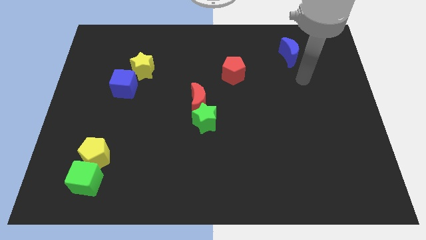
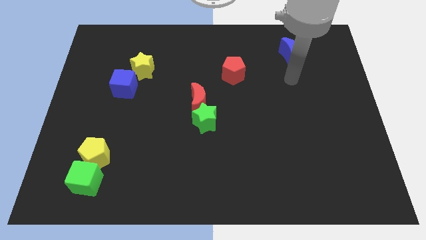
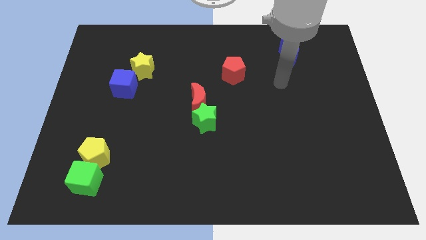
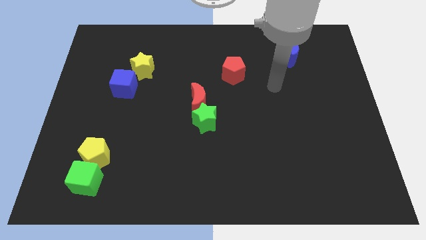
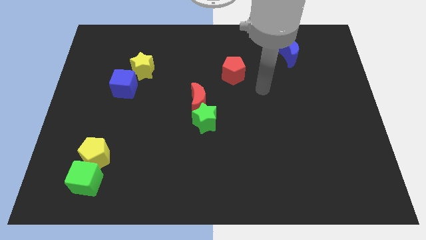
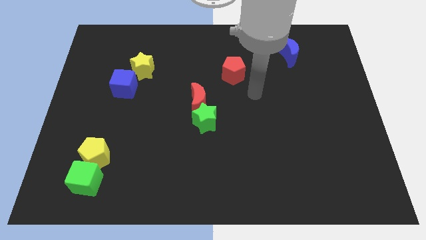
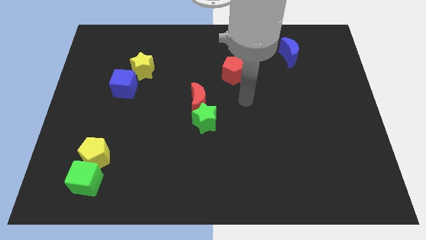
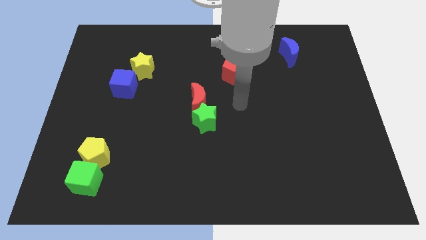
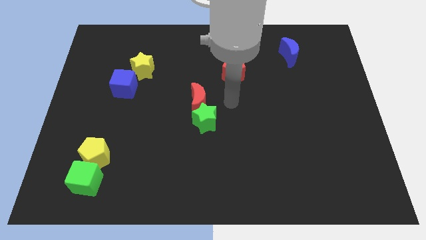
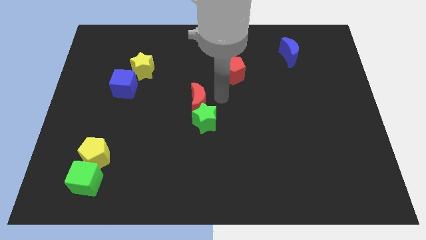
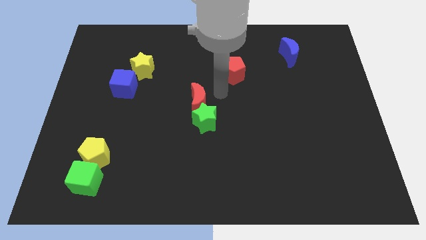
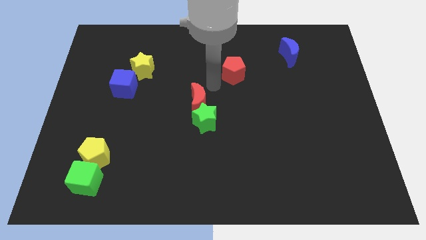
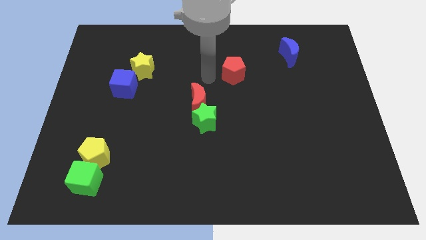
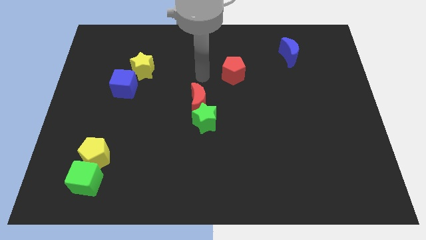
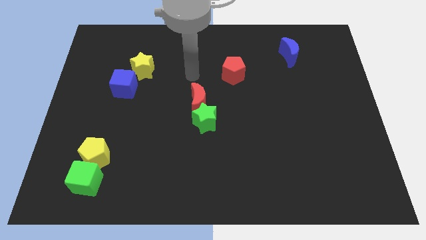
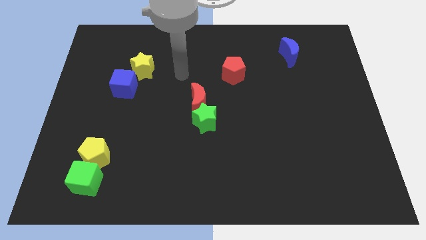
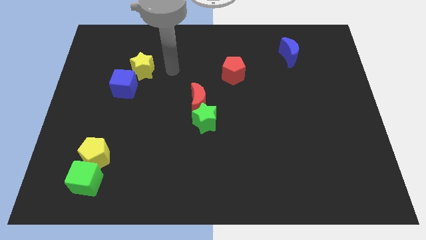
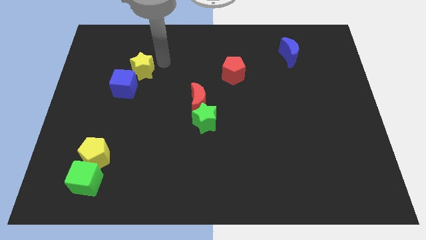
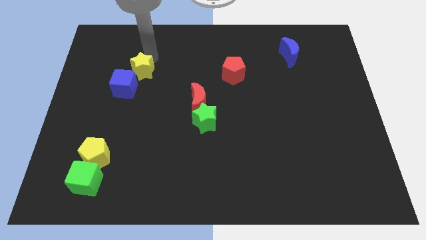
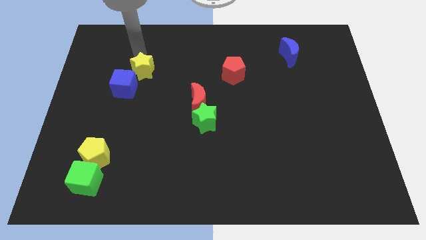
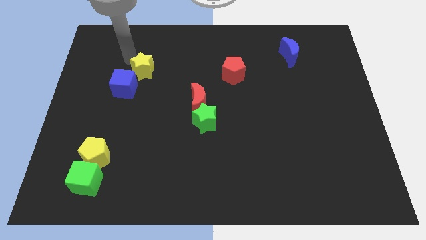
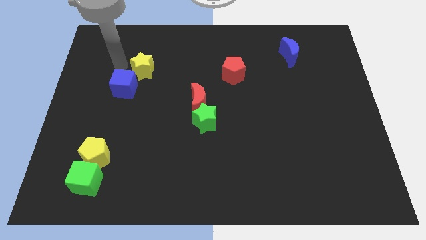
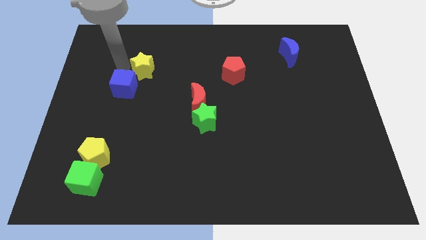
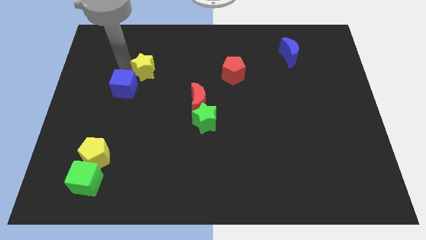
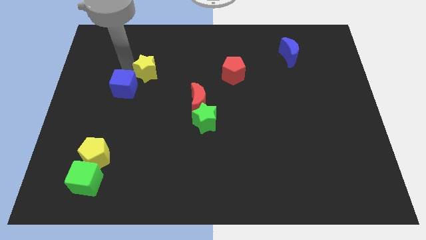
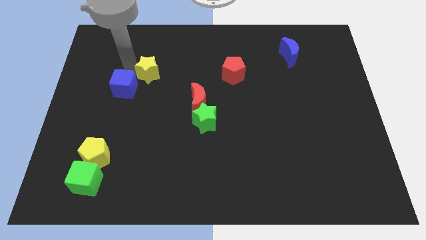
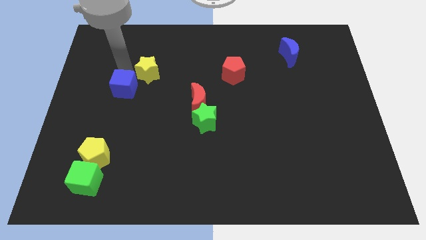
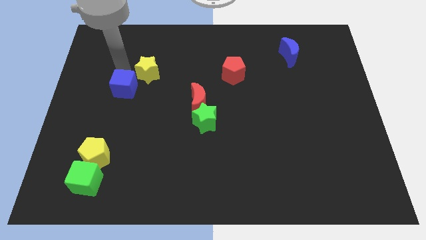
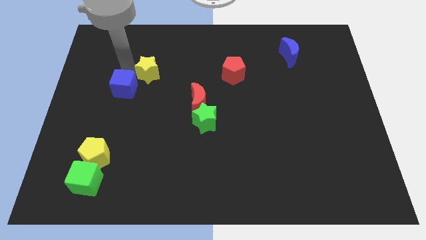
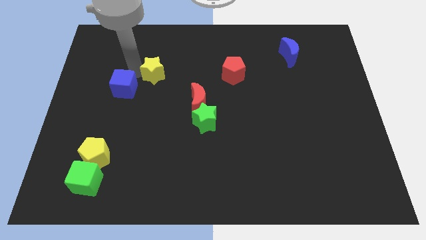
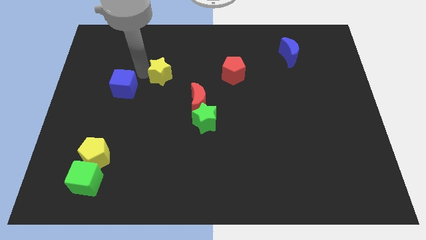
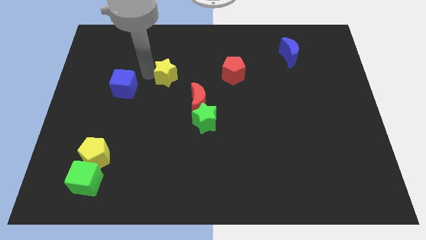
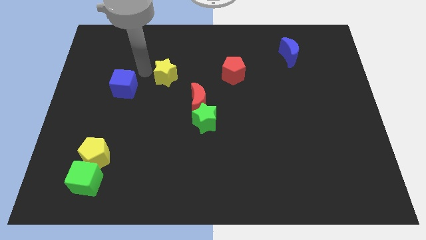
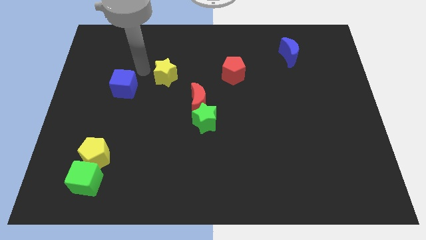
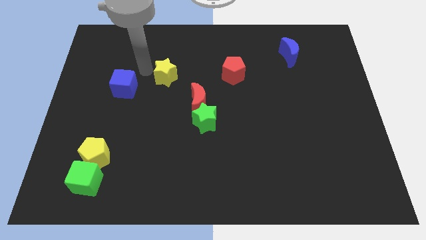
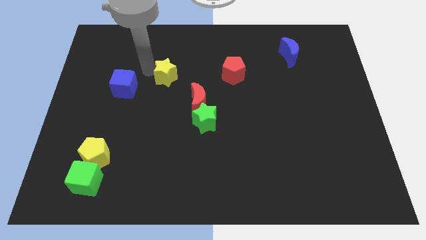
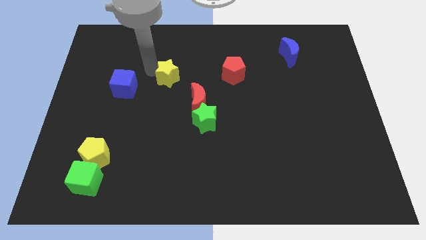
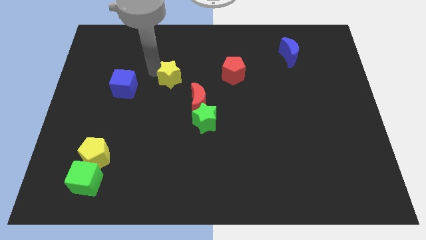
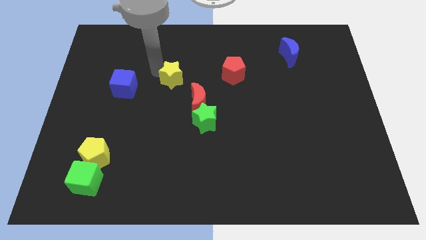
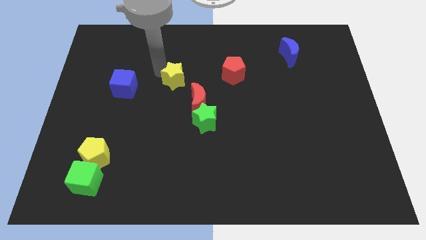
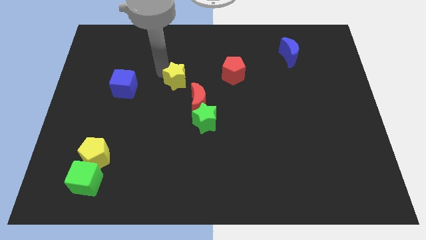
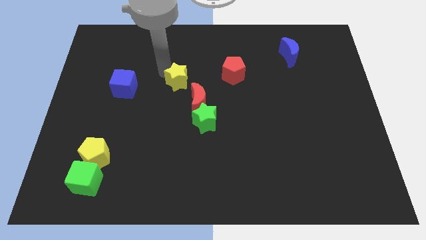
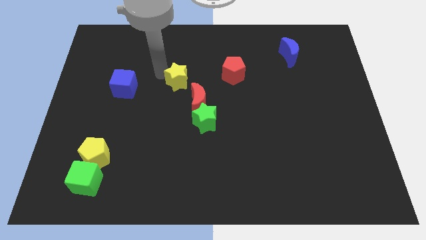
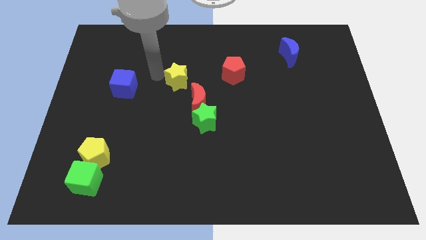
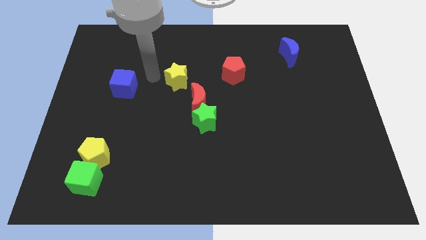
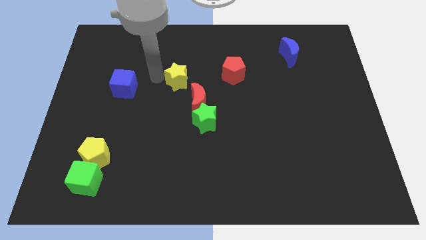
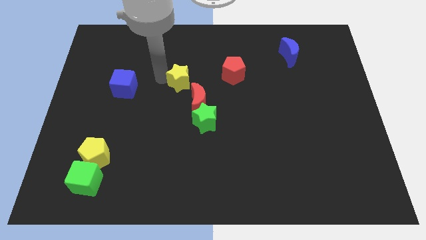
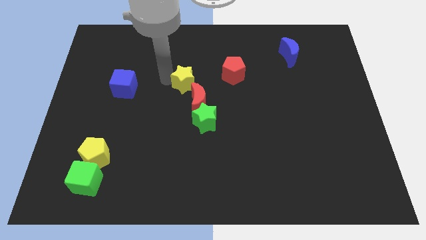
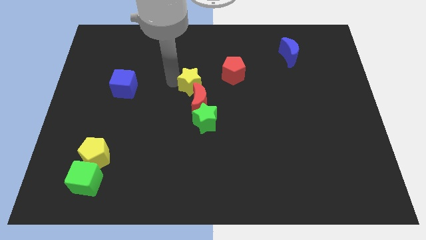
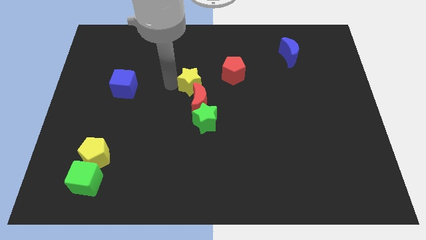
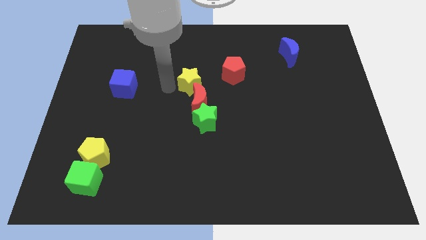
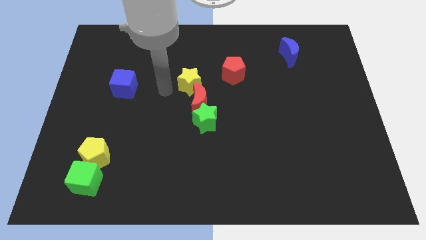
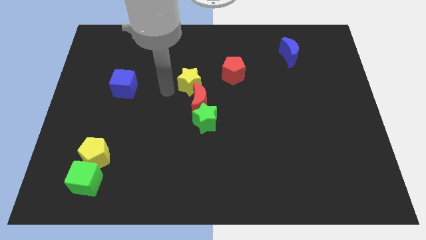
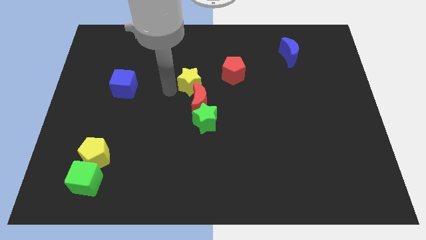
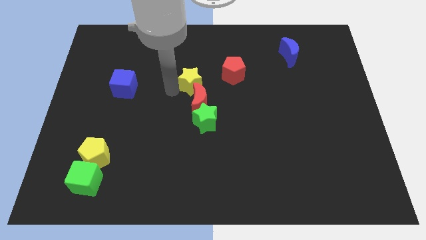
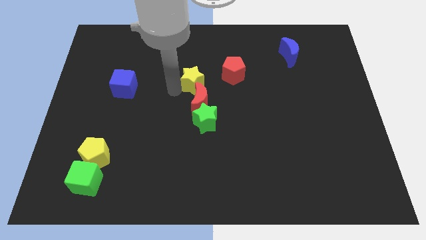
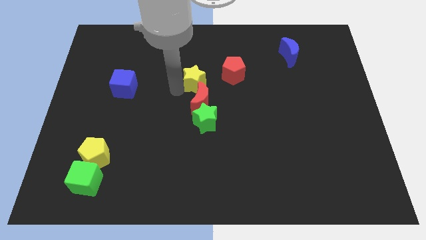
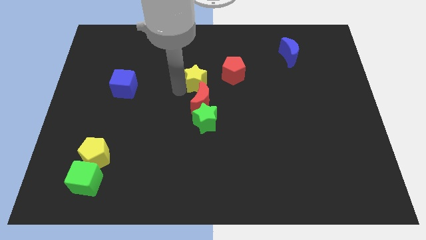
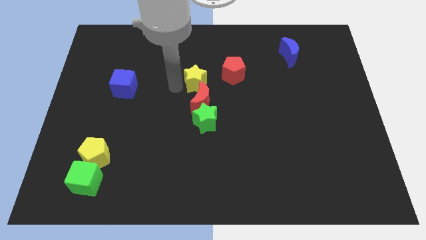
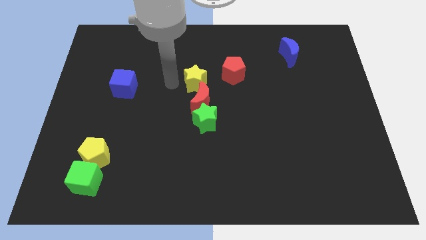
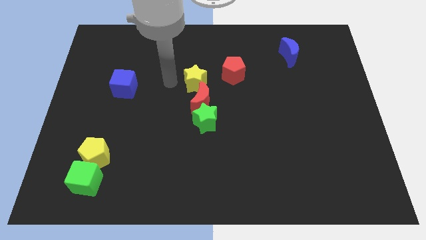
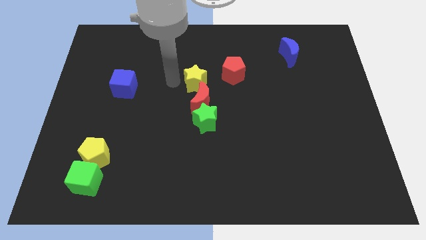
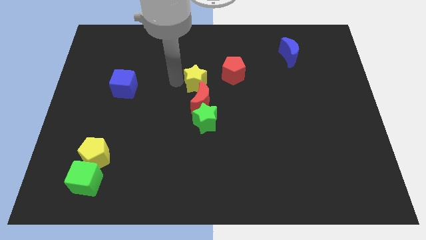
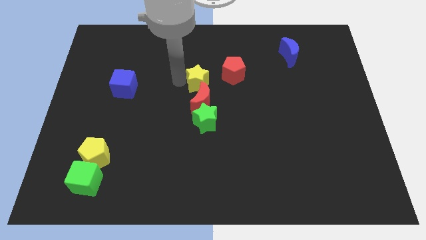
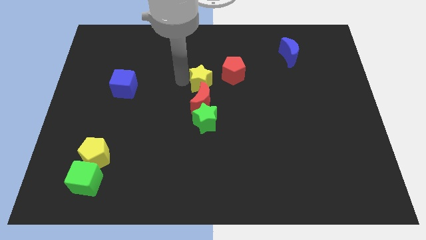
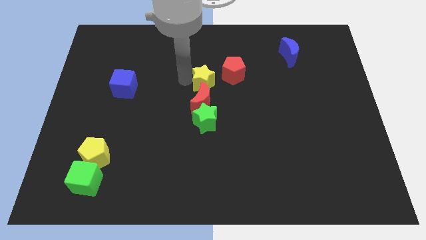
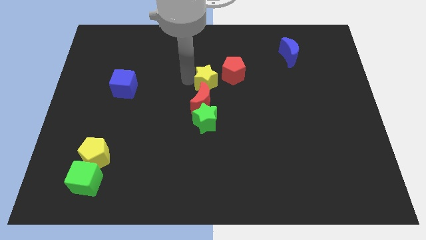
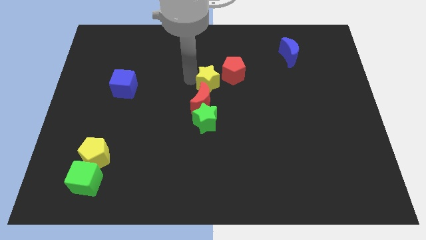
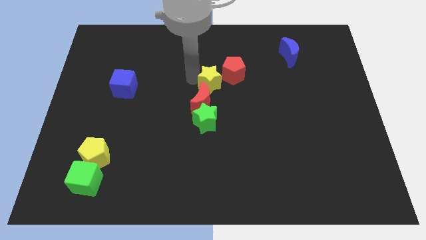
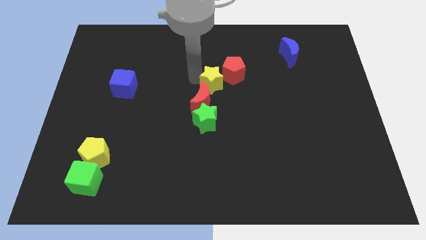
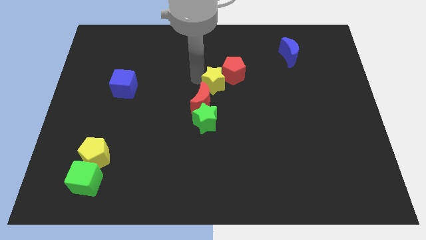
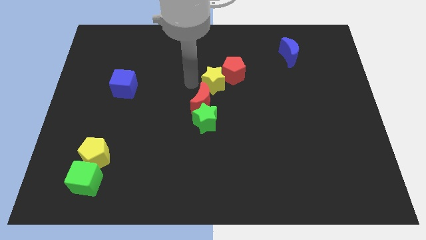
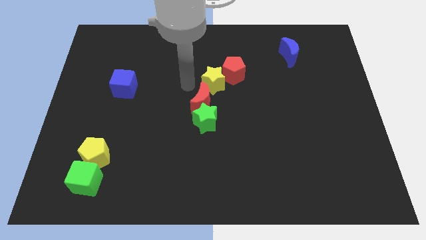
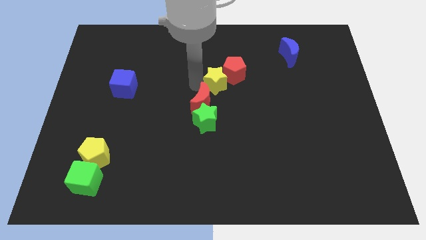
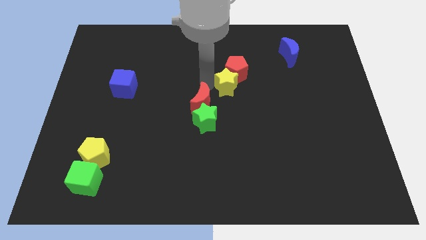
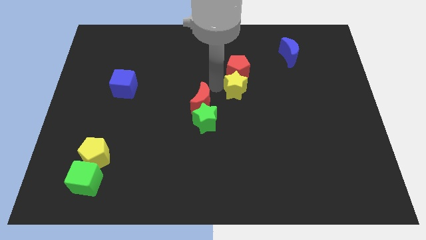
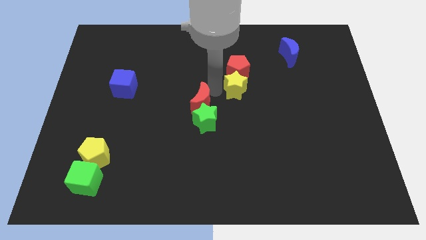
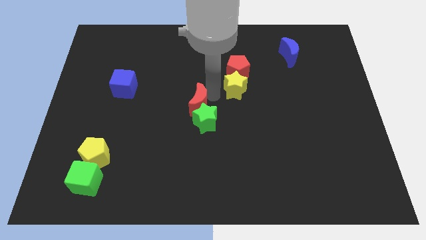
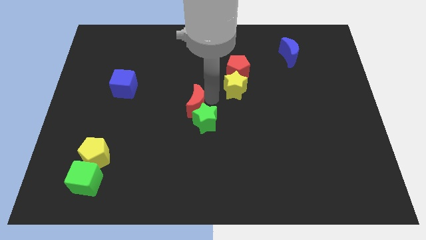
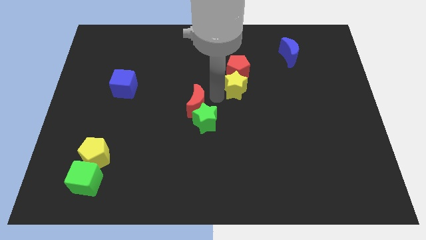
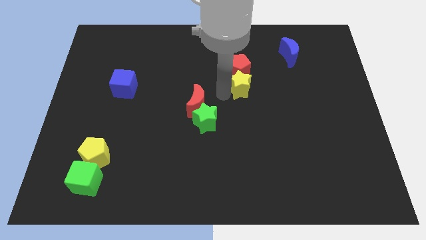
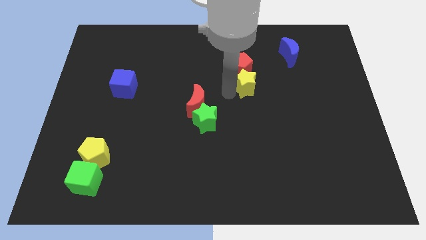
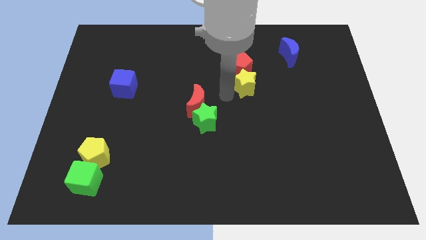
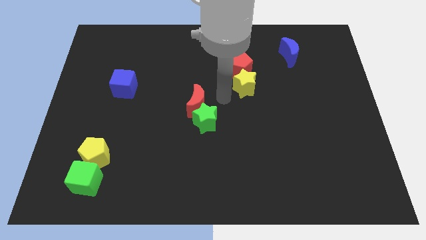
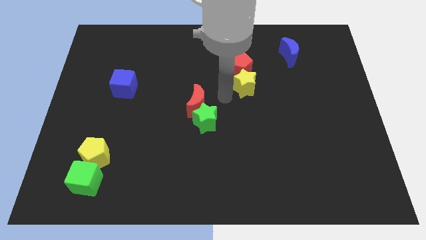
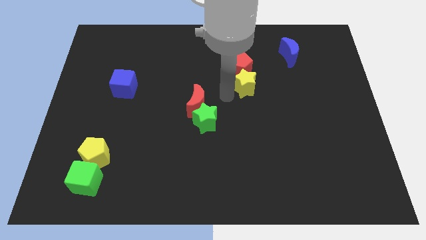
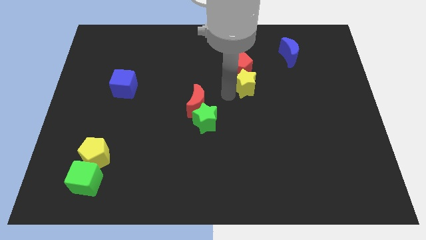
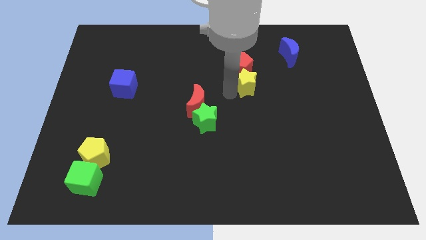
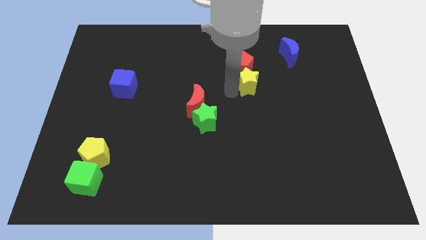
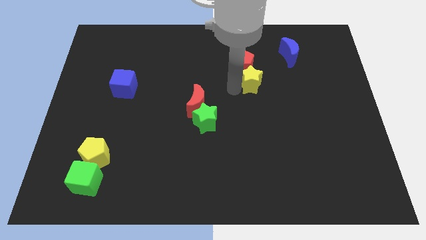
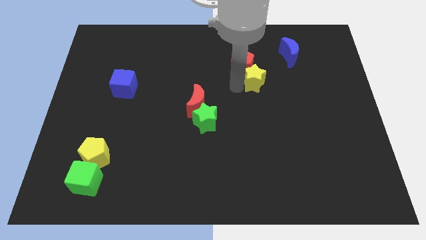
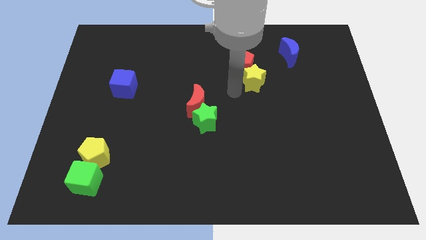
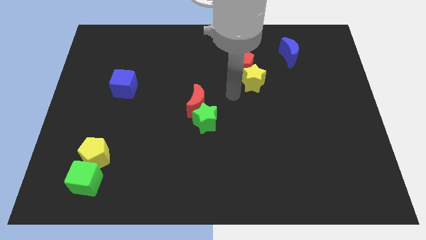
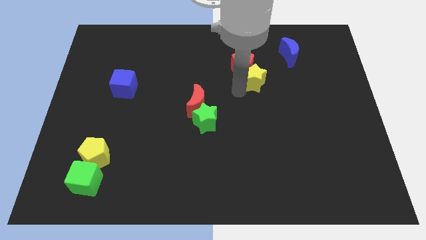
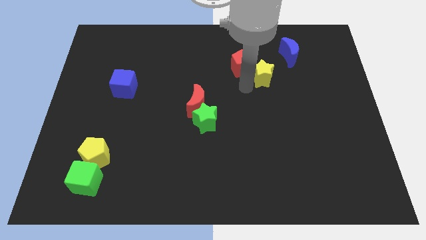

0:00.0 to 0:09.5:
slide the yellow star just right of the red pentagon
